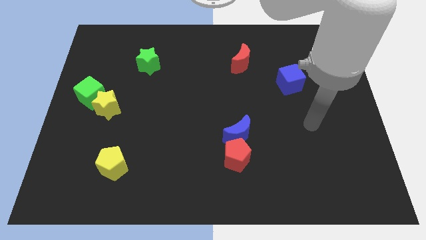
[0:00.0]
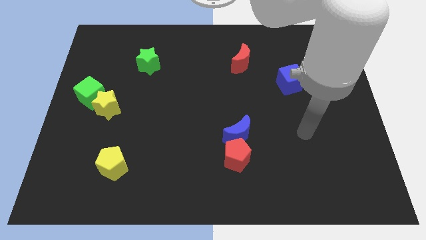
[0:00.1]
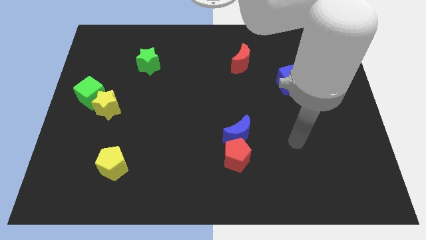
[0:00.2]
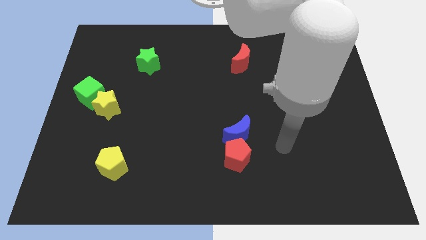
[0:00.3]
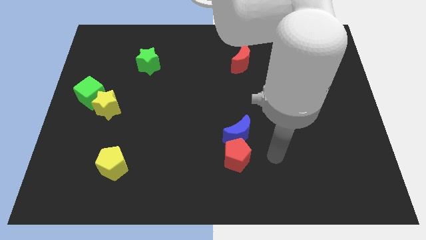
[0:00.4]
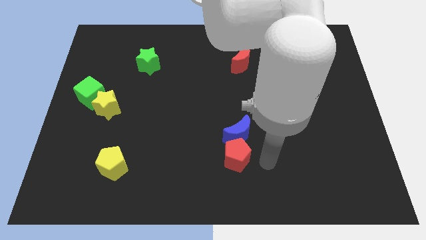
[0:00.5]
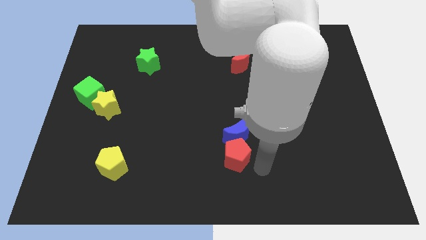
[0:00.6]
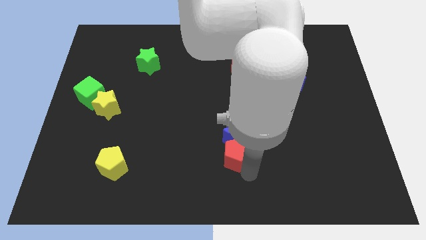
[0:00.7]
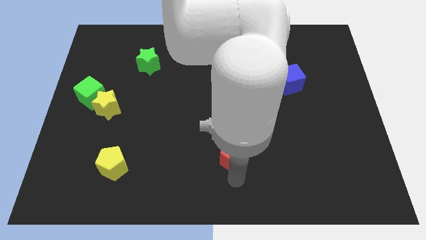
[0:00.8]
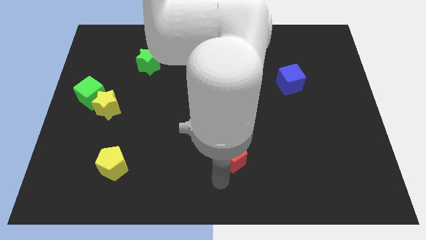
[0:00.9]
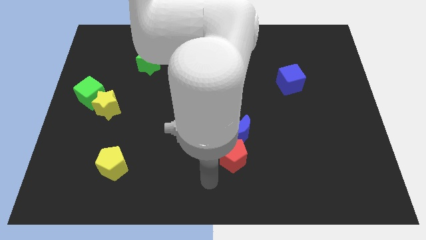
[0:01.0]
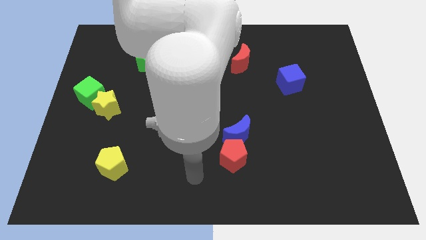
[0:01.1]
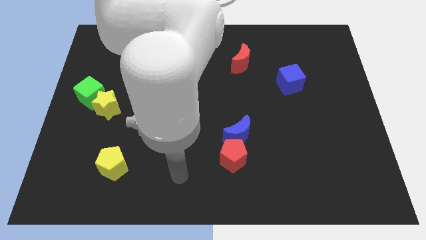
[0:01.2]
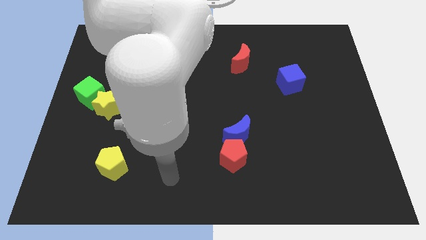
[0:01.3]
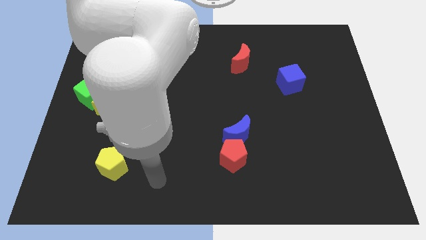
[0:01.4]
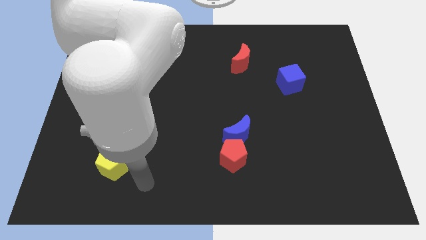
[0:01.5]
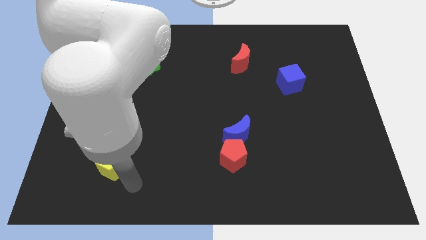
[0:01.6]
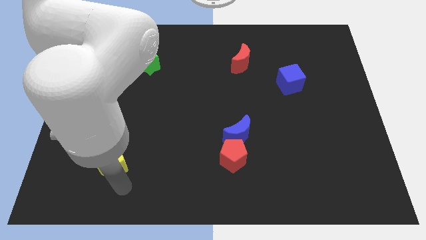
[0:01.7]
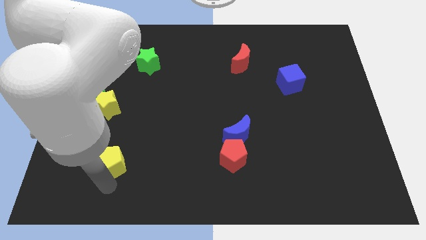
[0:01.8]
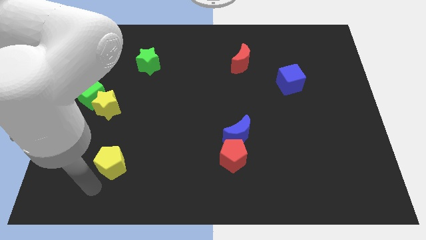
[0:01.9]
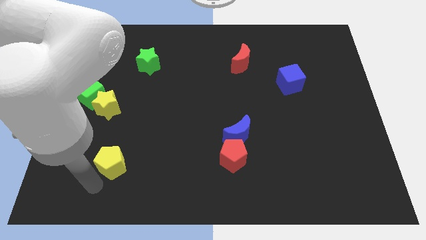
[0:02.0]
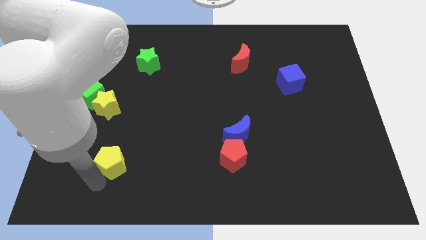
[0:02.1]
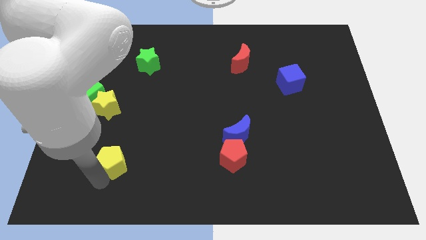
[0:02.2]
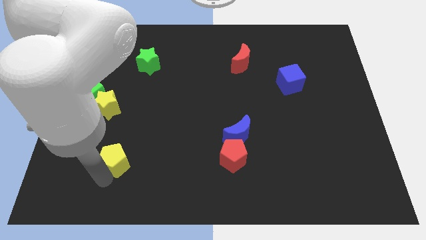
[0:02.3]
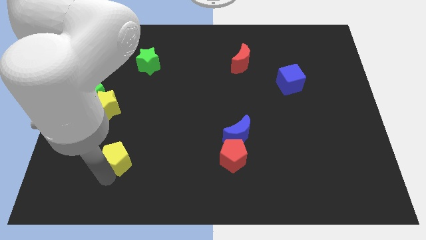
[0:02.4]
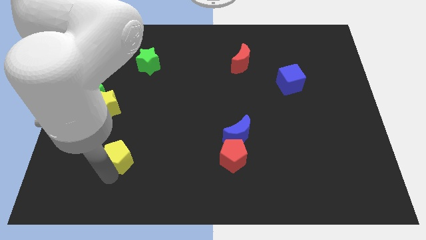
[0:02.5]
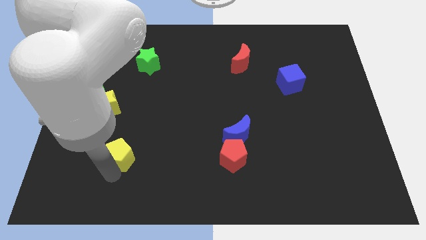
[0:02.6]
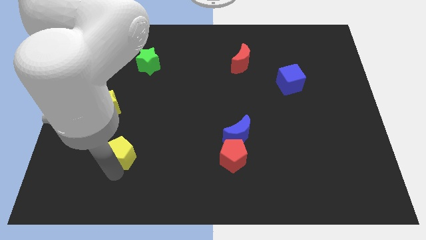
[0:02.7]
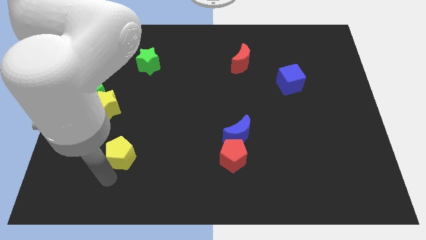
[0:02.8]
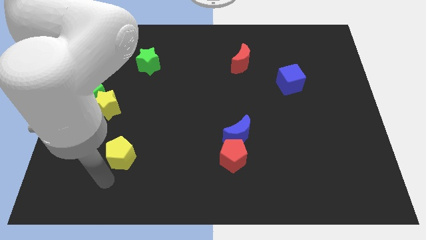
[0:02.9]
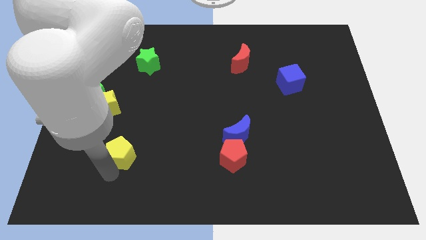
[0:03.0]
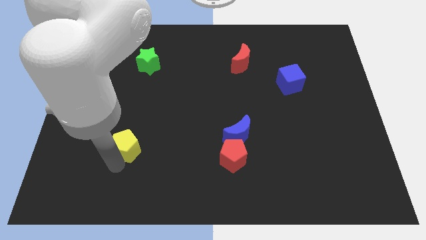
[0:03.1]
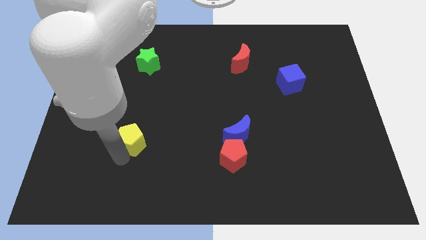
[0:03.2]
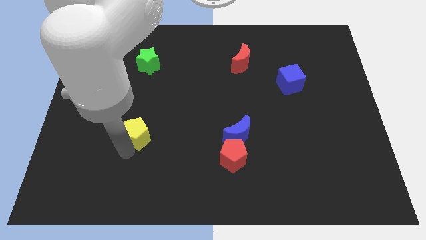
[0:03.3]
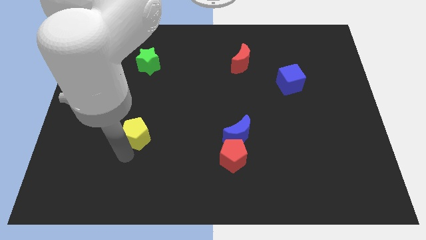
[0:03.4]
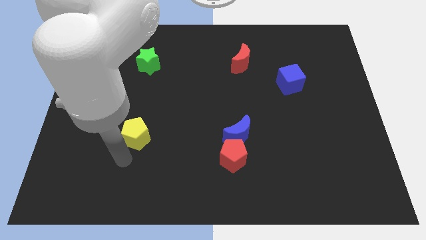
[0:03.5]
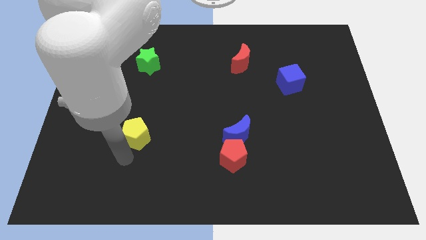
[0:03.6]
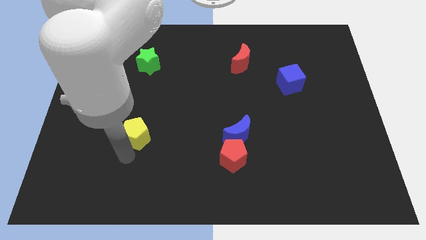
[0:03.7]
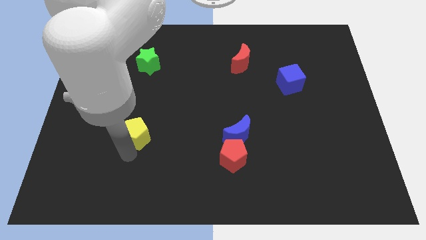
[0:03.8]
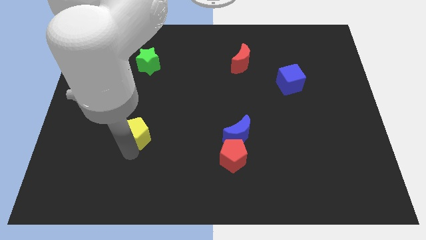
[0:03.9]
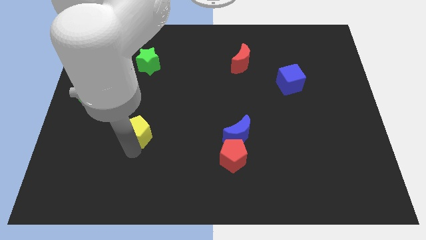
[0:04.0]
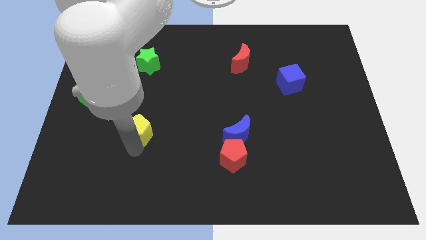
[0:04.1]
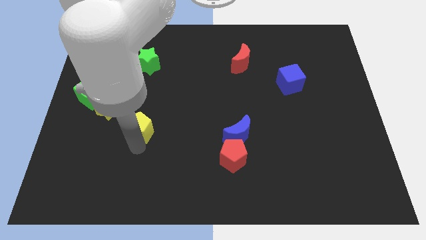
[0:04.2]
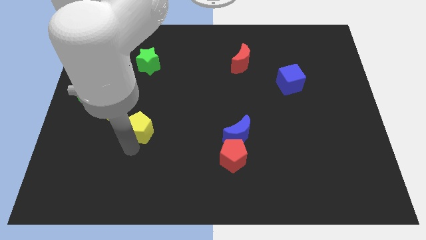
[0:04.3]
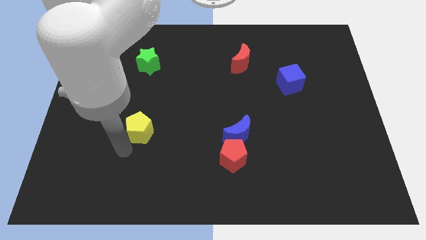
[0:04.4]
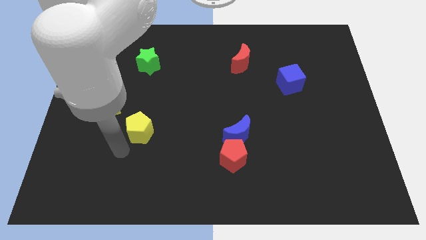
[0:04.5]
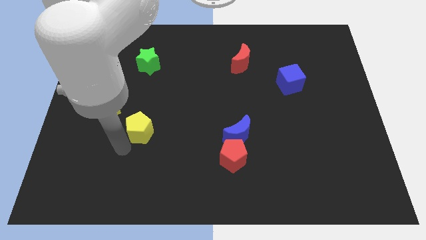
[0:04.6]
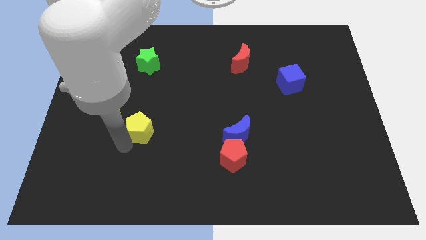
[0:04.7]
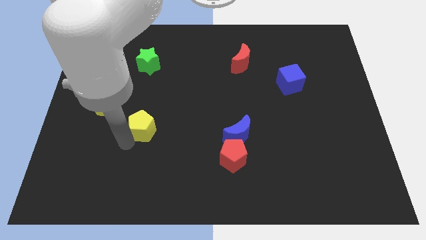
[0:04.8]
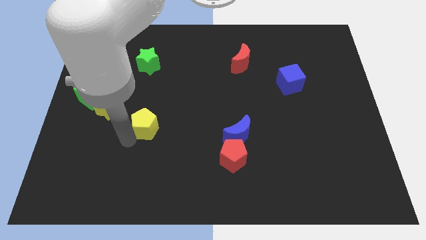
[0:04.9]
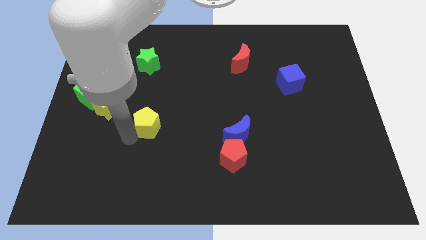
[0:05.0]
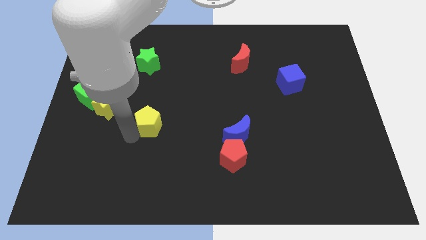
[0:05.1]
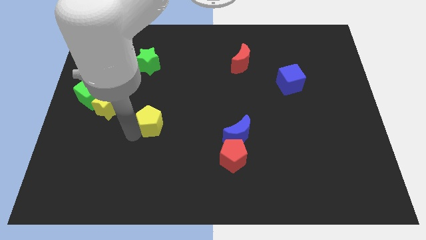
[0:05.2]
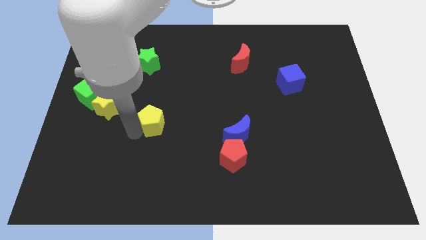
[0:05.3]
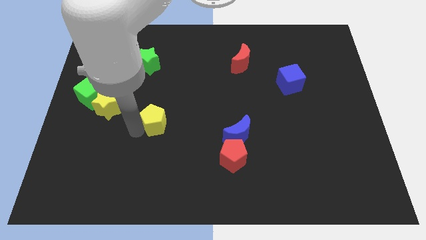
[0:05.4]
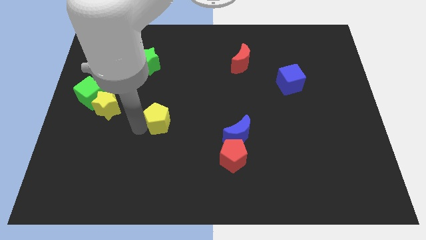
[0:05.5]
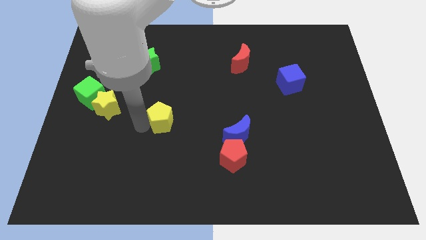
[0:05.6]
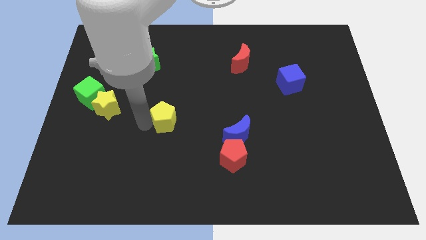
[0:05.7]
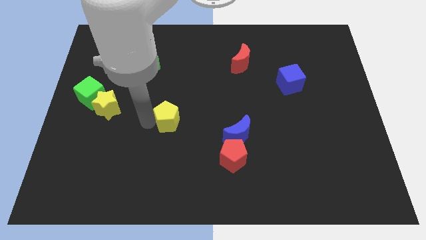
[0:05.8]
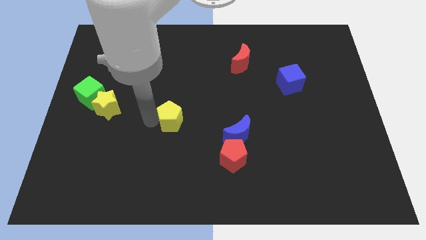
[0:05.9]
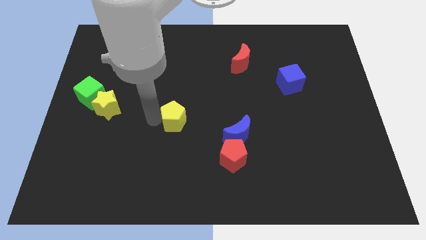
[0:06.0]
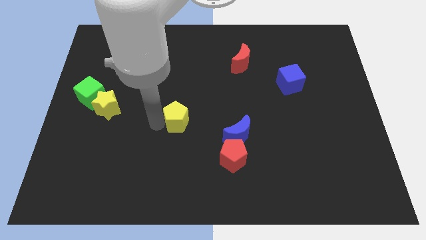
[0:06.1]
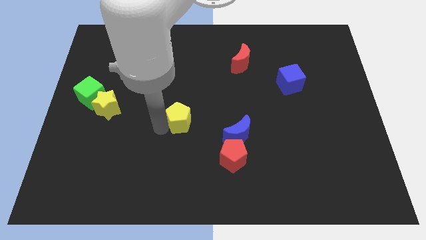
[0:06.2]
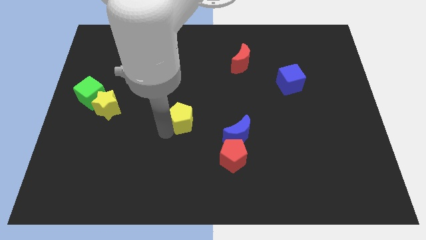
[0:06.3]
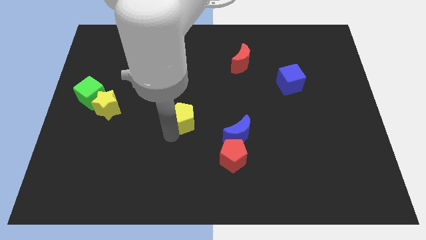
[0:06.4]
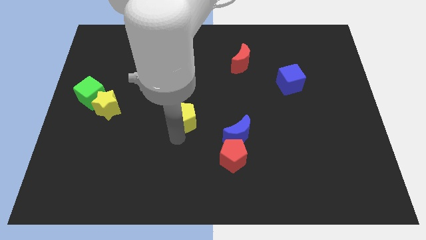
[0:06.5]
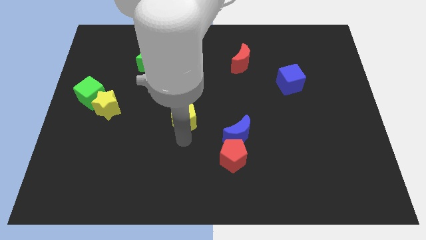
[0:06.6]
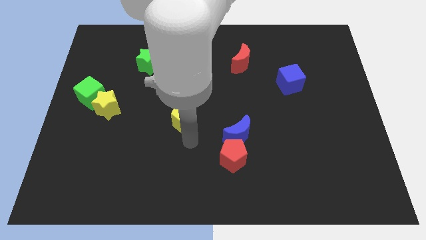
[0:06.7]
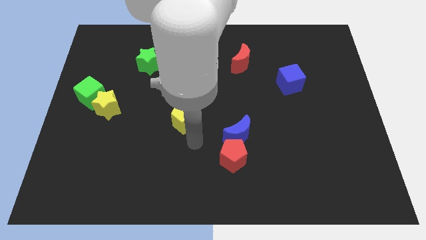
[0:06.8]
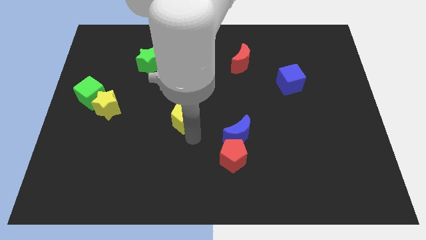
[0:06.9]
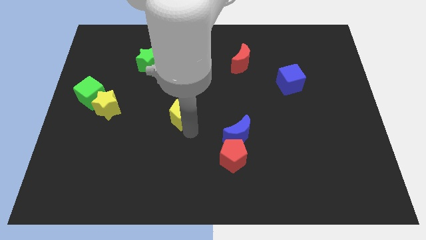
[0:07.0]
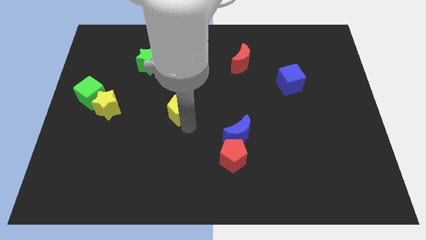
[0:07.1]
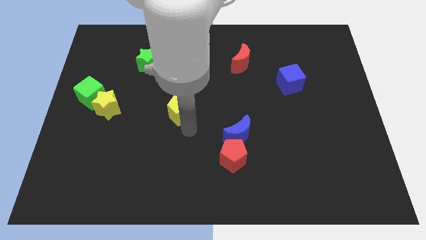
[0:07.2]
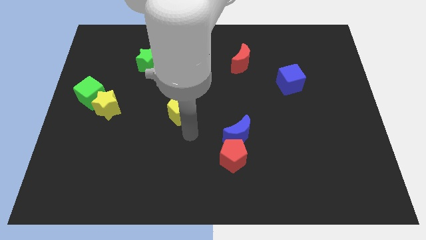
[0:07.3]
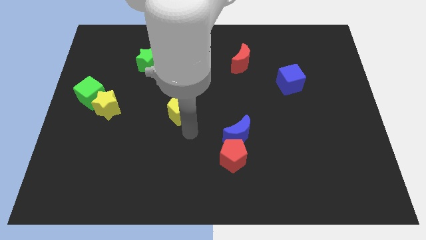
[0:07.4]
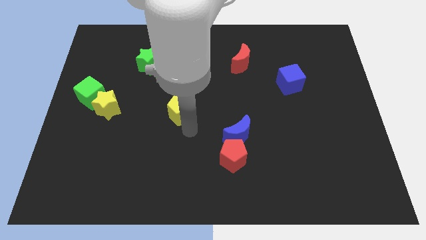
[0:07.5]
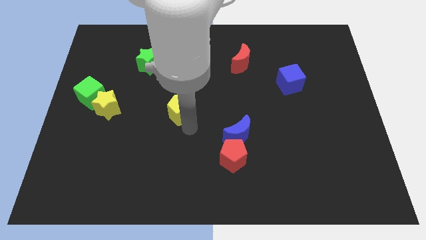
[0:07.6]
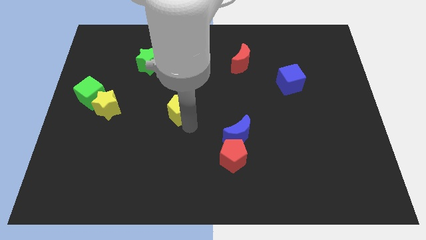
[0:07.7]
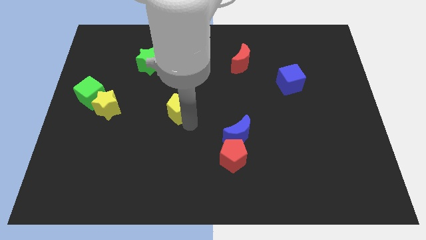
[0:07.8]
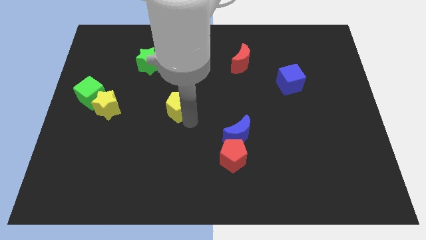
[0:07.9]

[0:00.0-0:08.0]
slide the yellow pentagon upwards and then right
